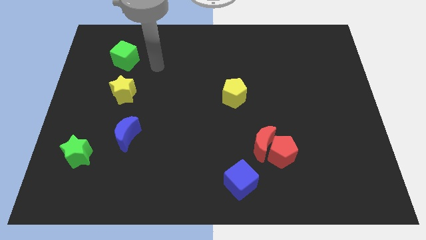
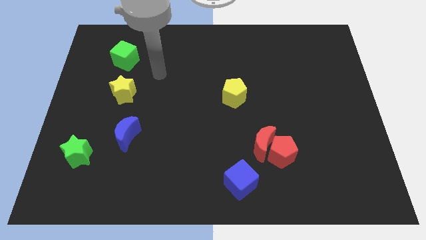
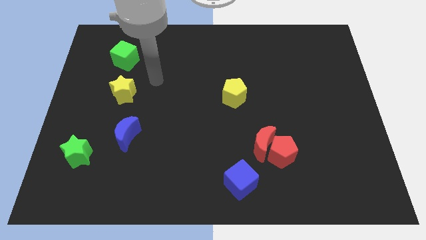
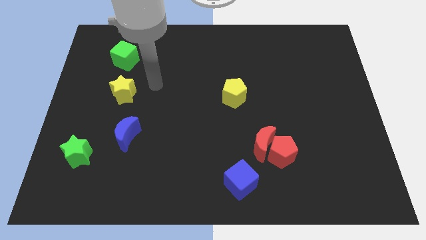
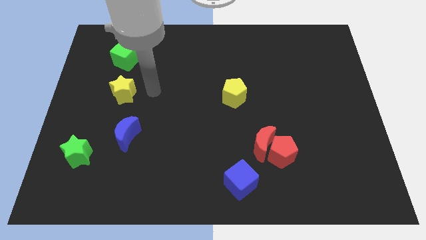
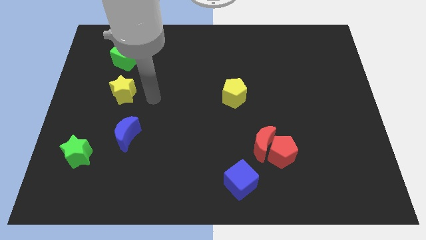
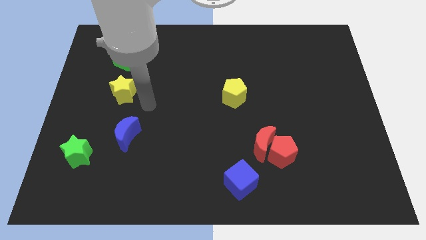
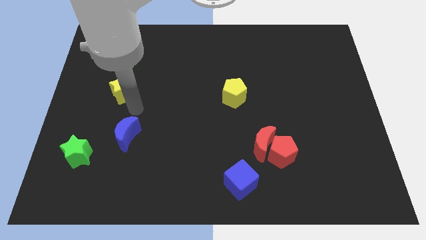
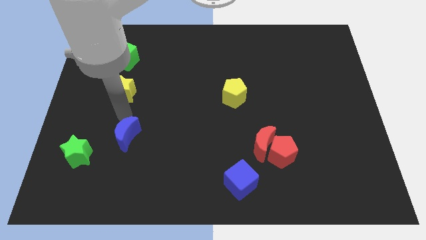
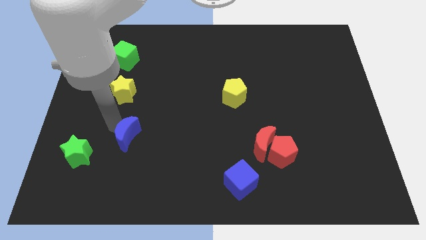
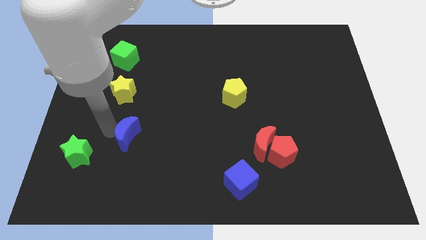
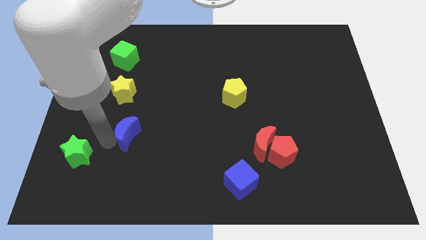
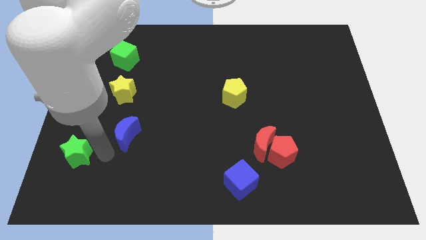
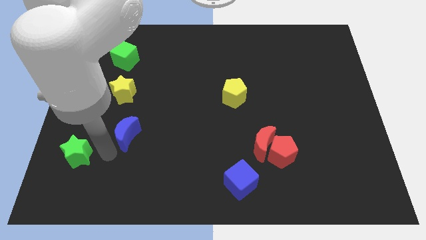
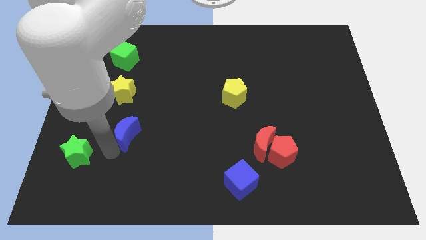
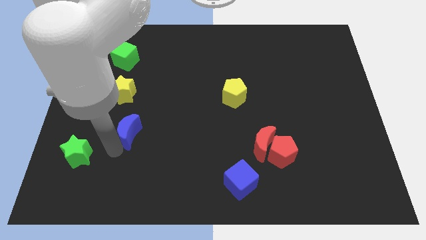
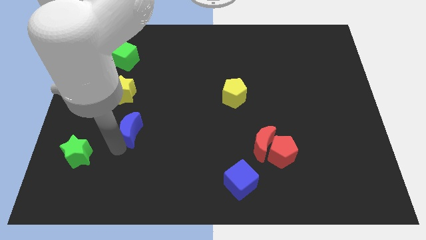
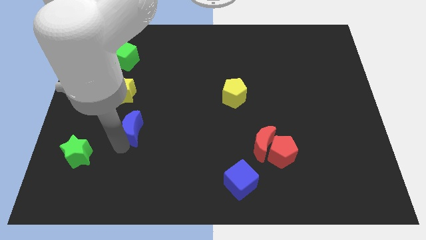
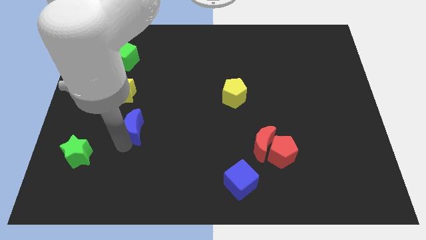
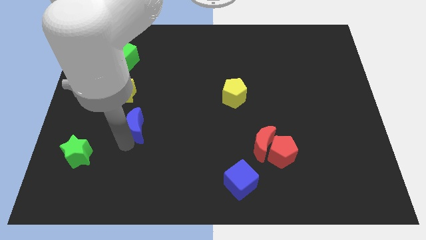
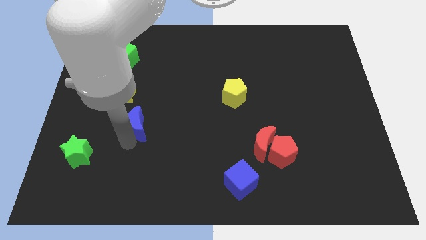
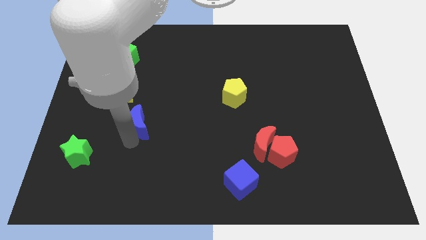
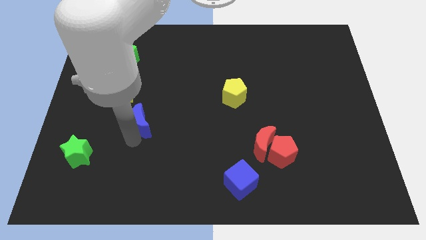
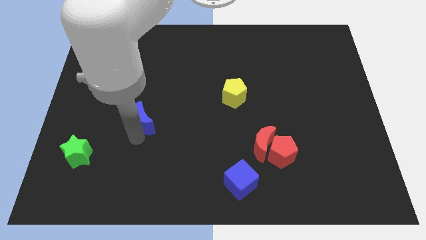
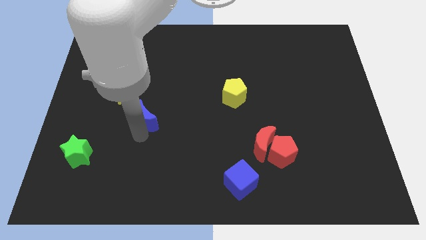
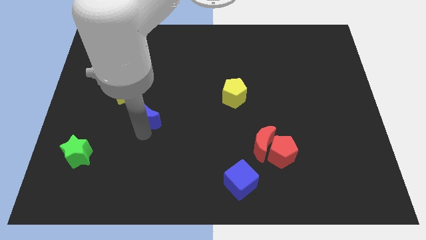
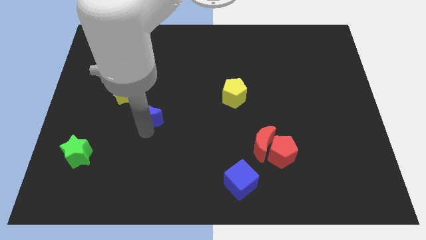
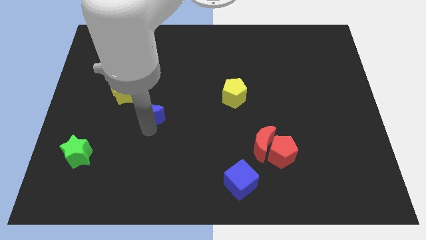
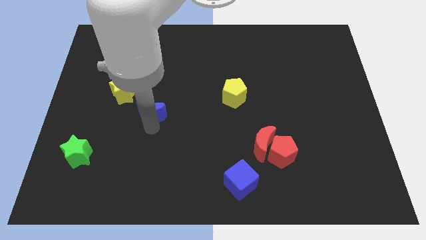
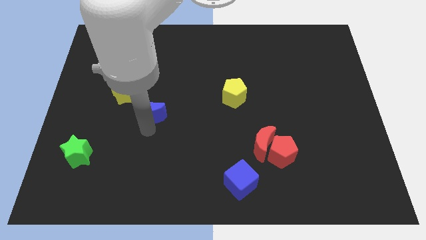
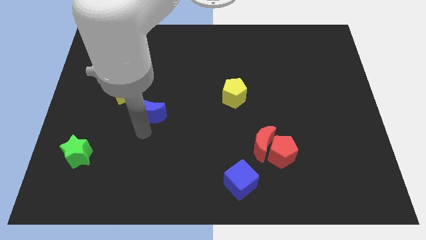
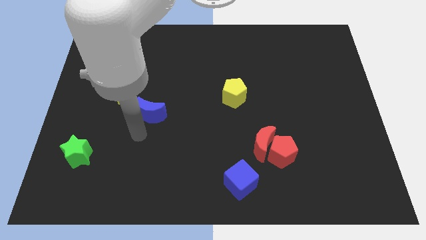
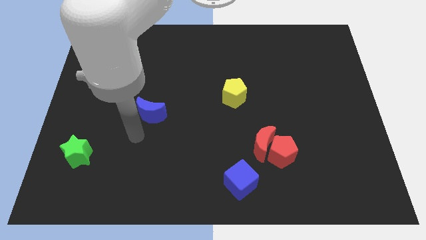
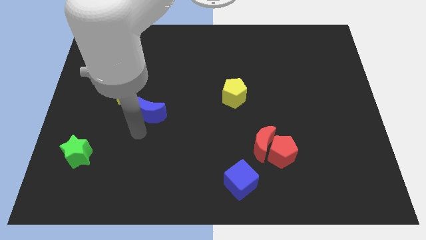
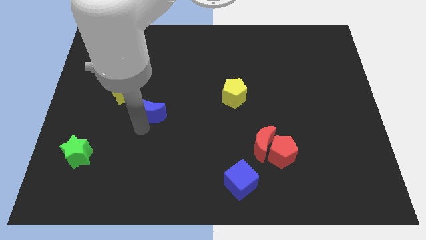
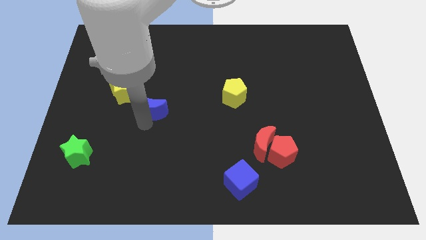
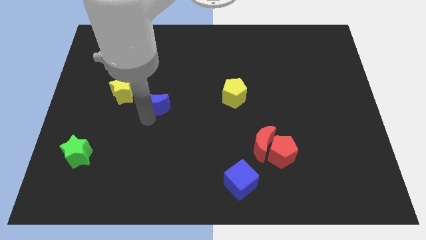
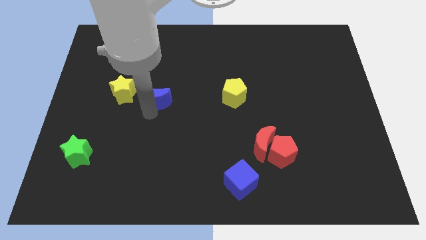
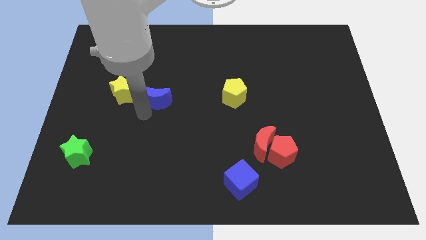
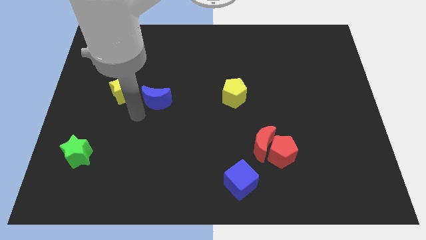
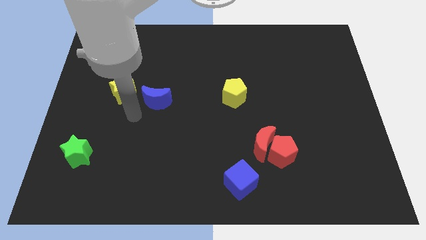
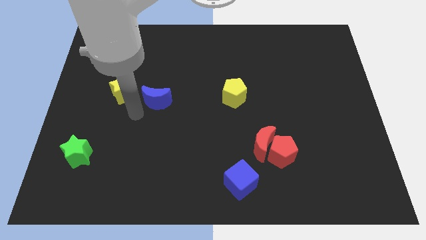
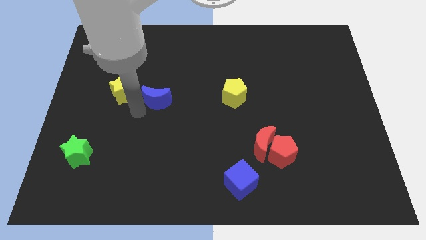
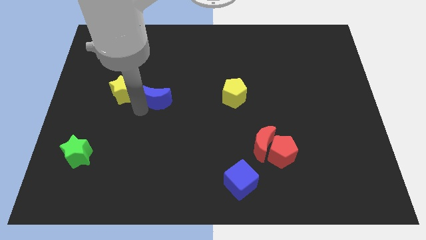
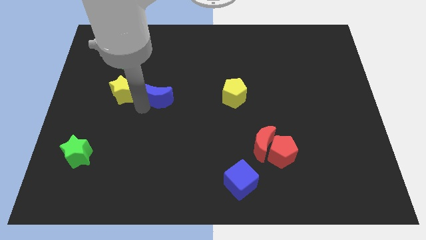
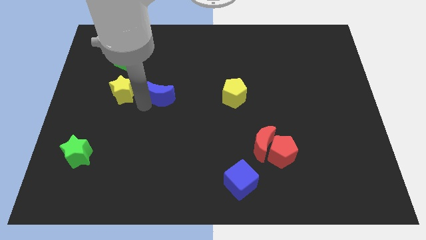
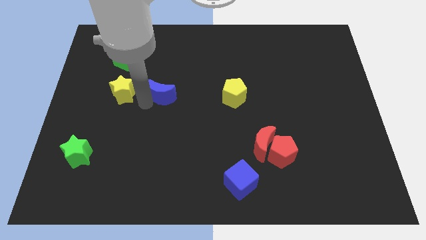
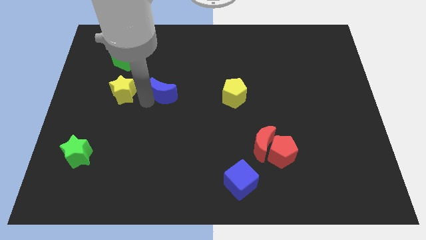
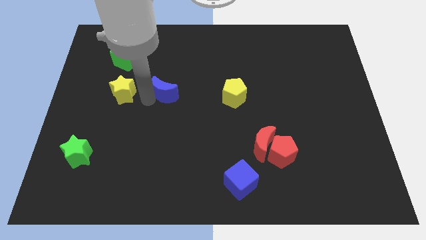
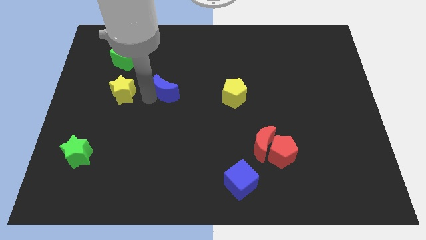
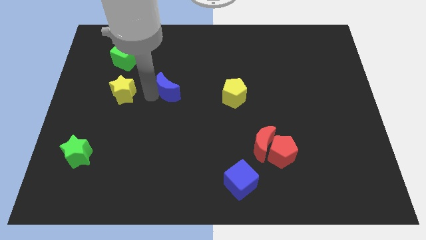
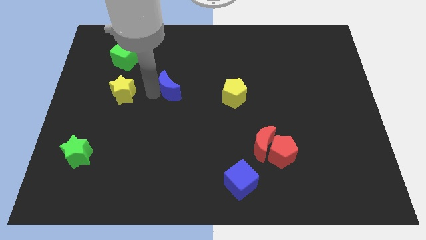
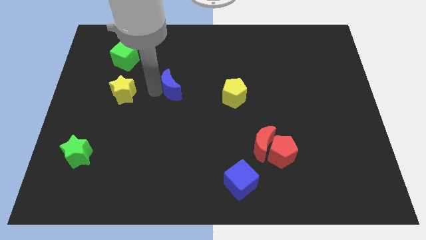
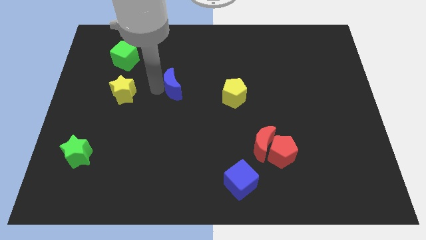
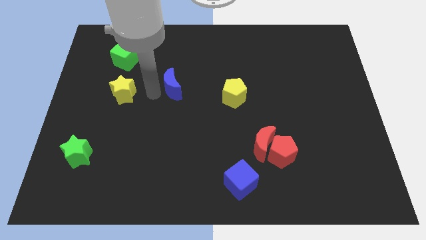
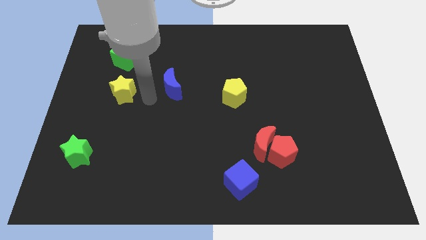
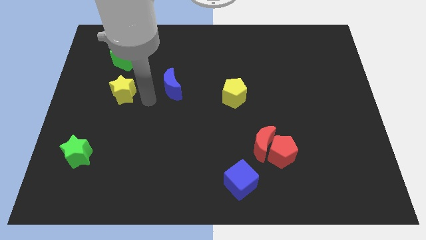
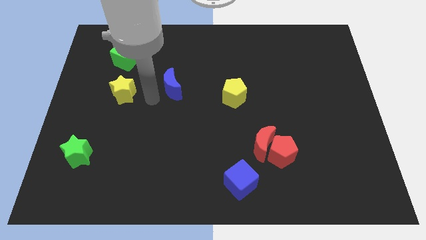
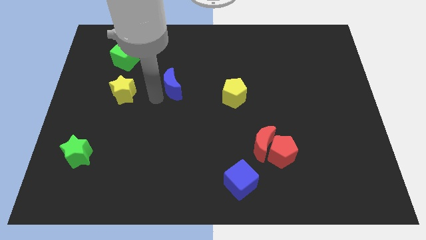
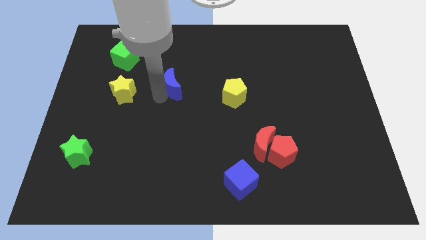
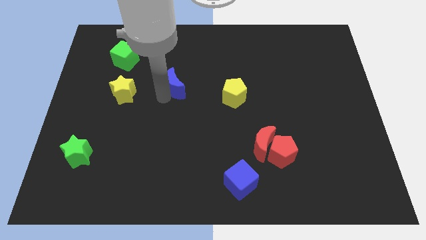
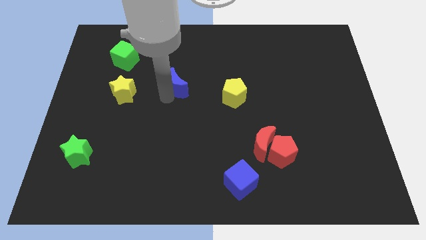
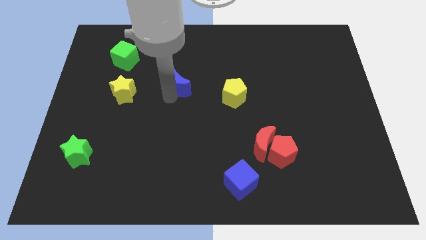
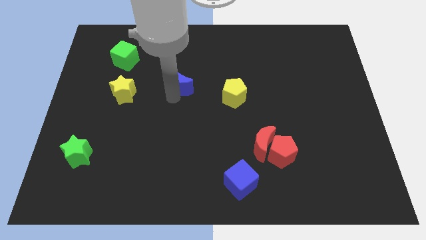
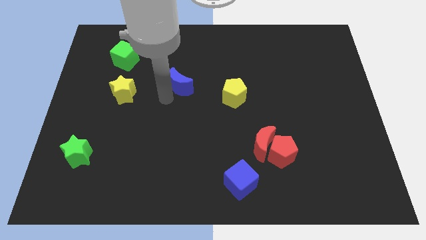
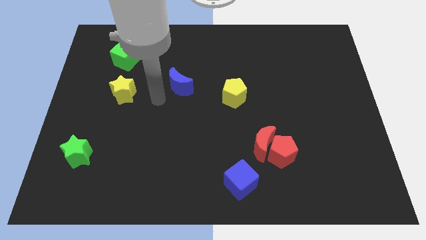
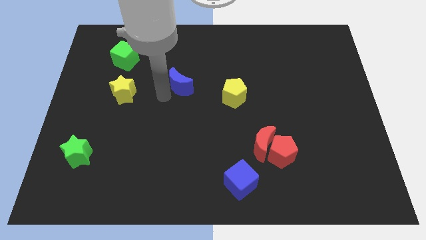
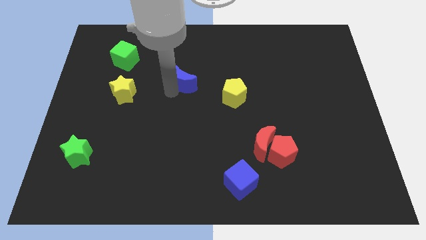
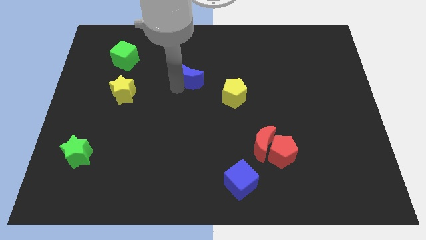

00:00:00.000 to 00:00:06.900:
slide the blue moon up and to the right

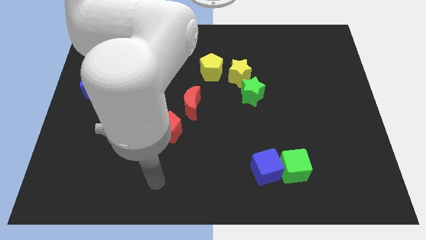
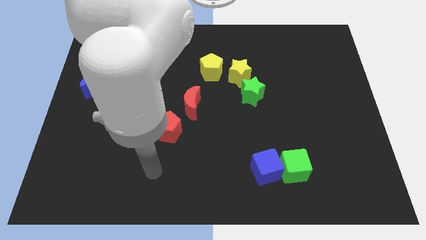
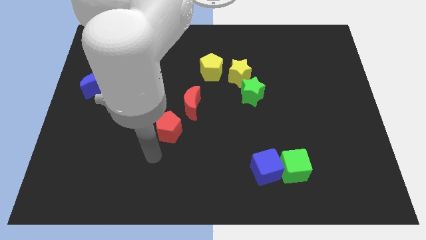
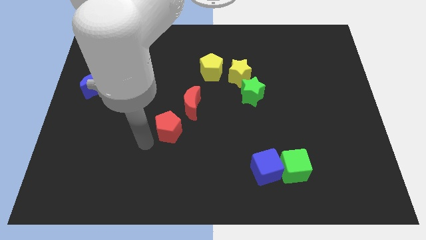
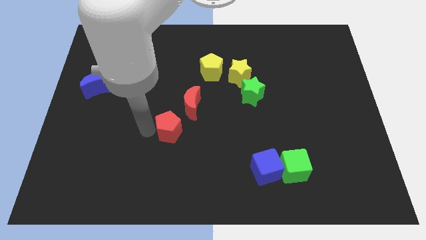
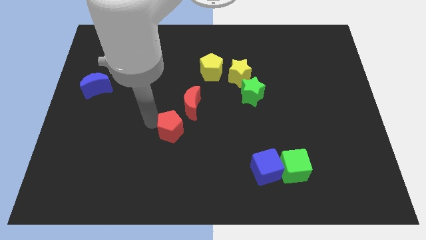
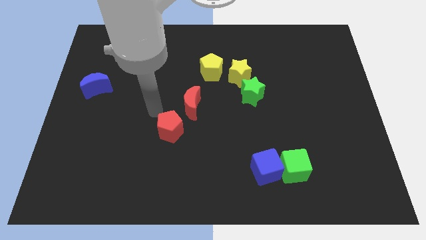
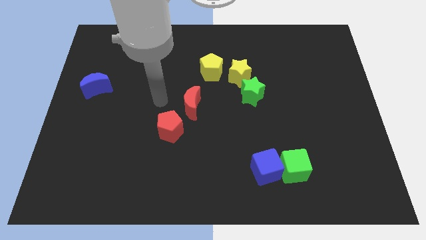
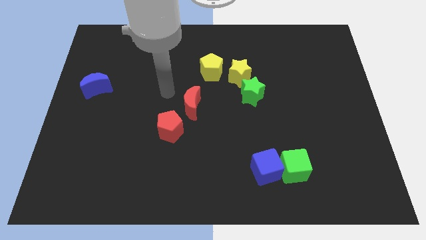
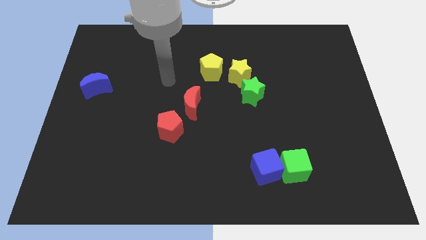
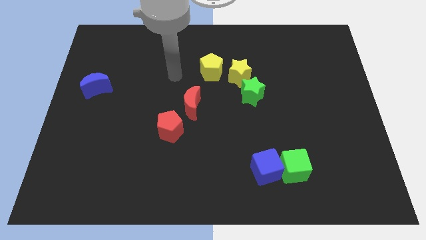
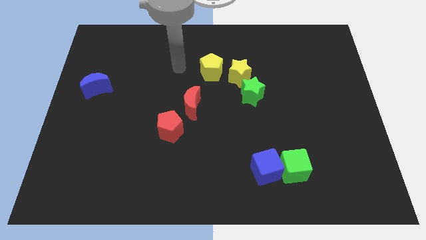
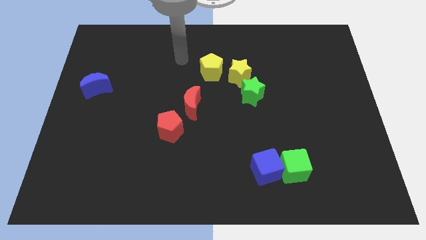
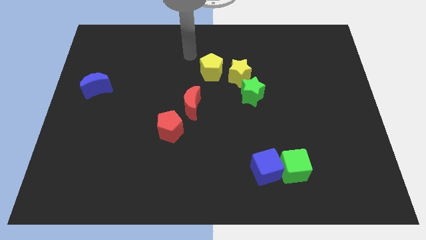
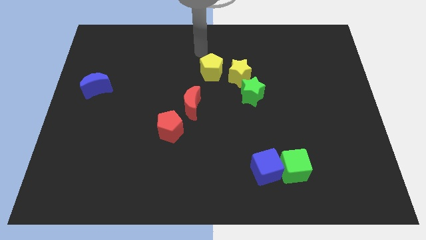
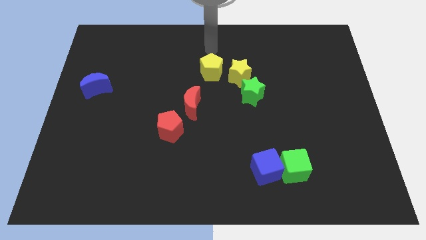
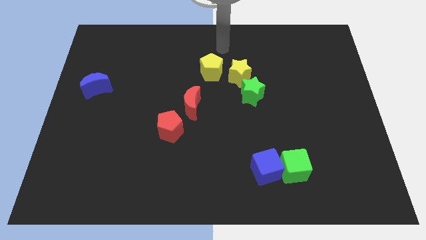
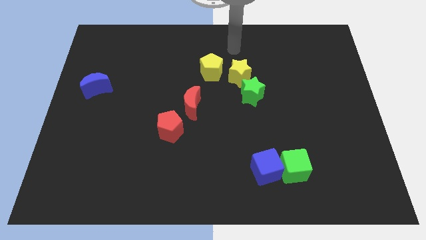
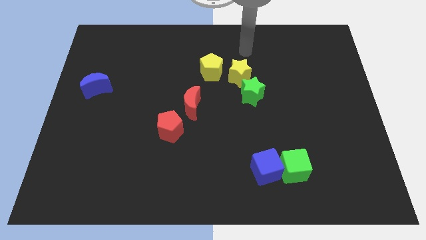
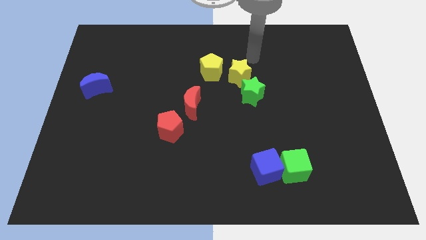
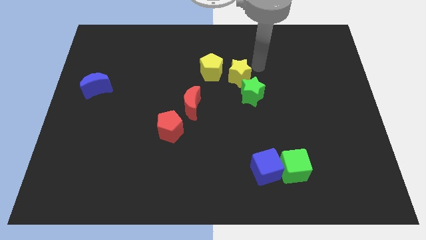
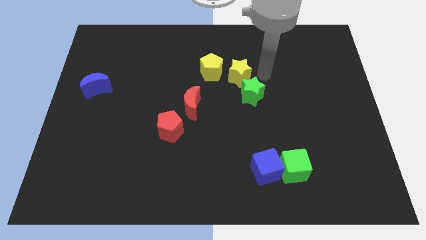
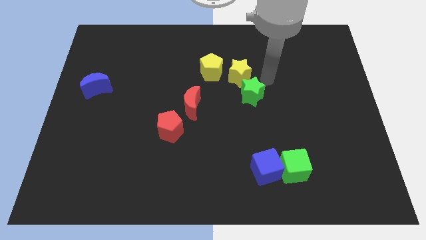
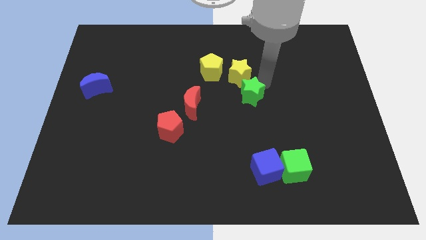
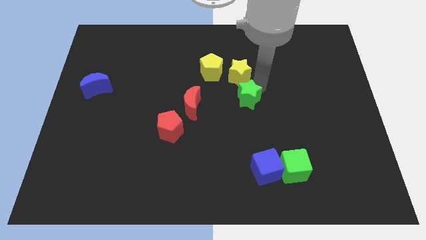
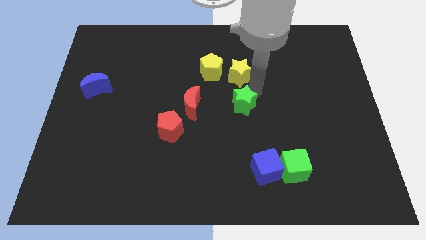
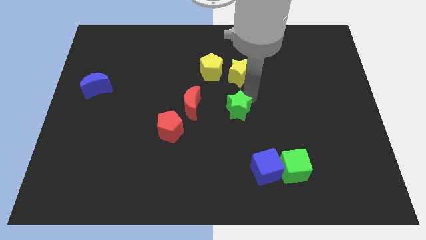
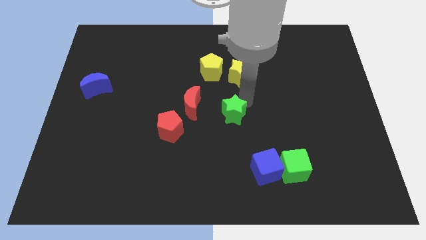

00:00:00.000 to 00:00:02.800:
slightly push the green star diagonally downwards and to the left
